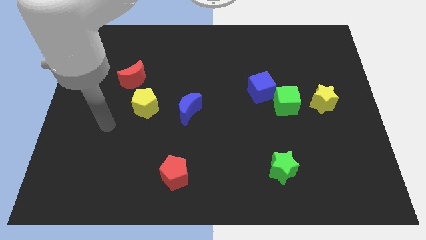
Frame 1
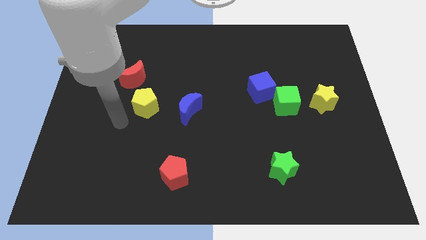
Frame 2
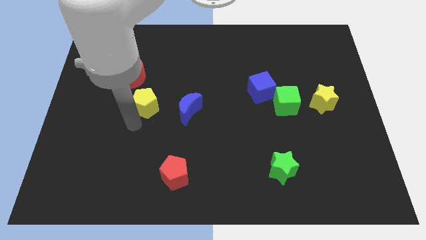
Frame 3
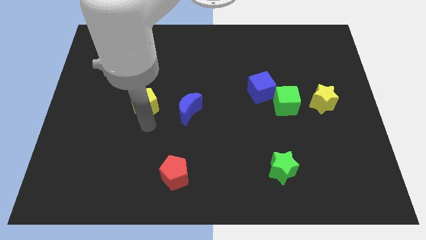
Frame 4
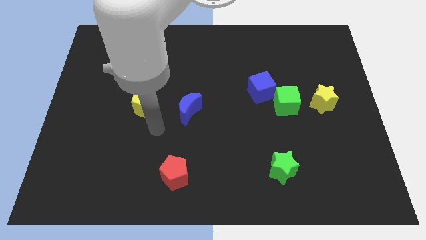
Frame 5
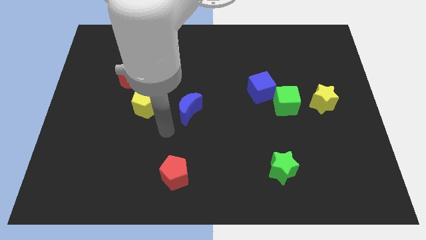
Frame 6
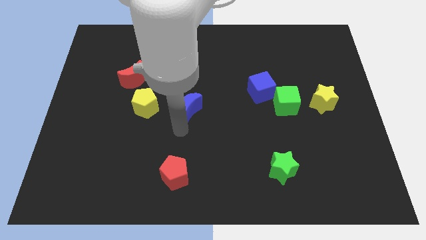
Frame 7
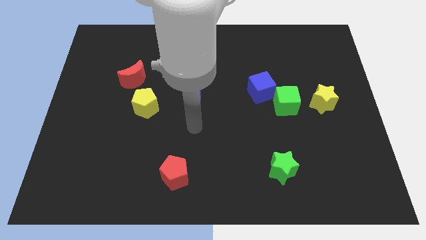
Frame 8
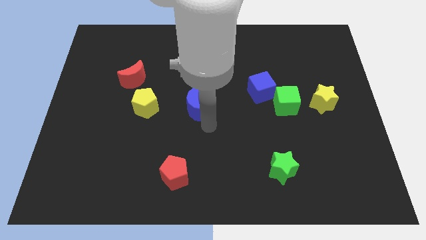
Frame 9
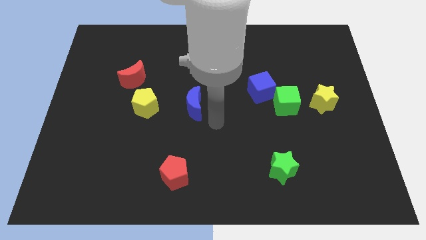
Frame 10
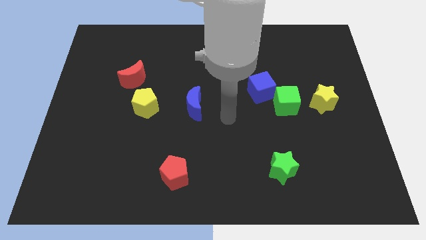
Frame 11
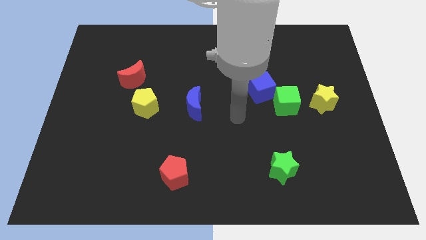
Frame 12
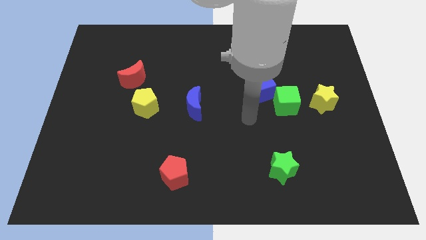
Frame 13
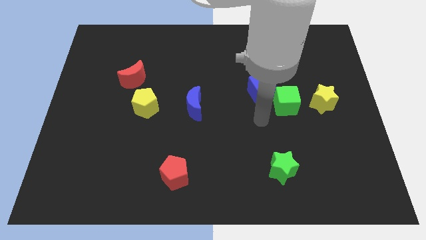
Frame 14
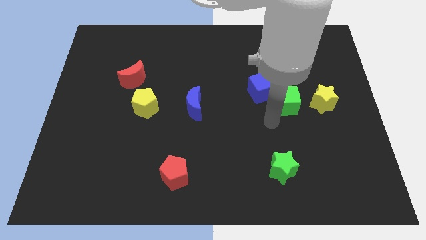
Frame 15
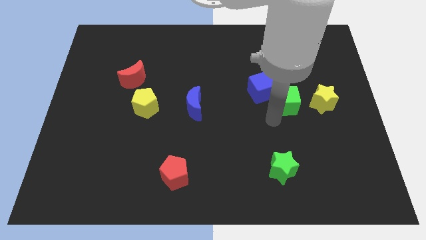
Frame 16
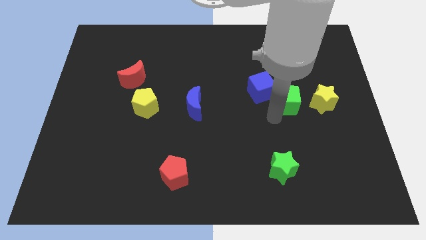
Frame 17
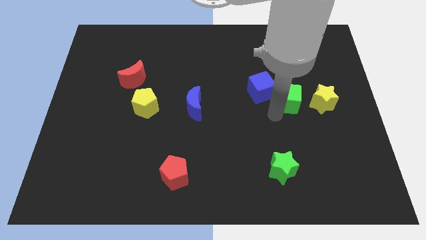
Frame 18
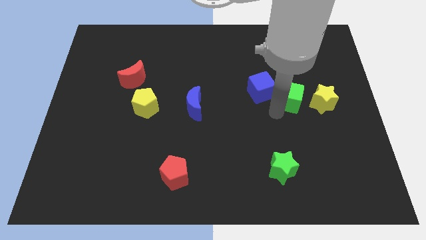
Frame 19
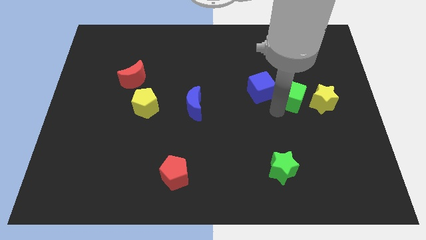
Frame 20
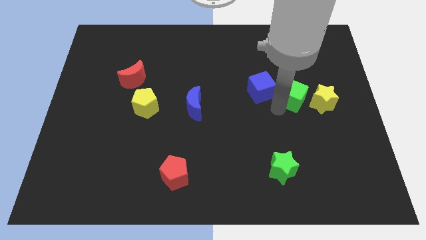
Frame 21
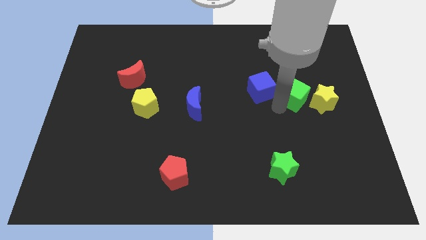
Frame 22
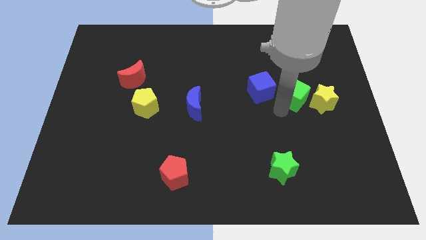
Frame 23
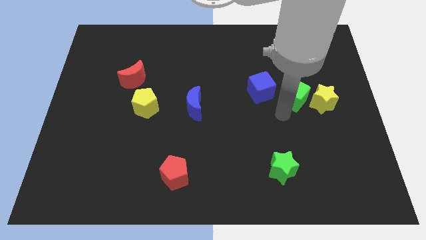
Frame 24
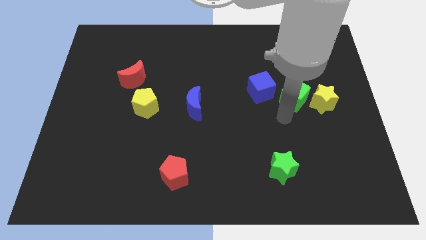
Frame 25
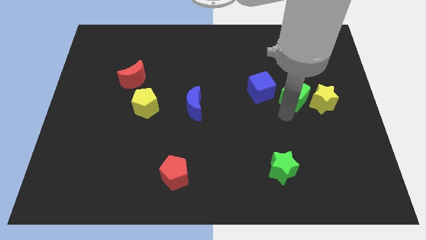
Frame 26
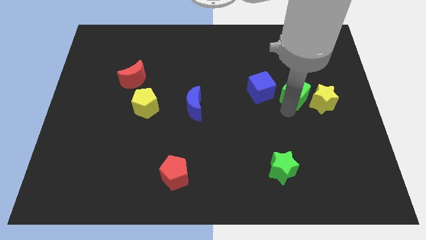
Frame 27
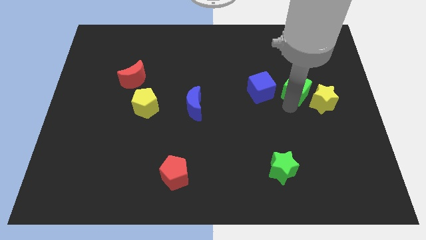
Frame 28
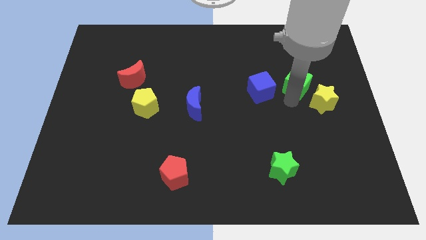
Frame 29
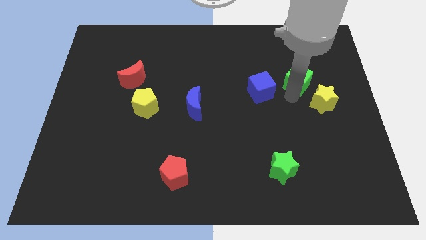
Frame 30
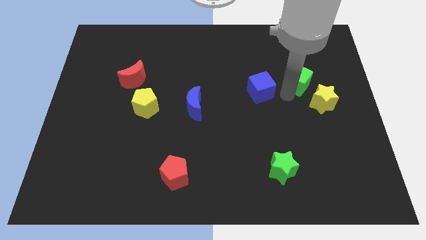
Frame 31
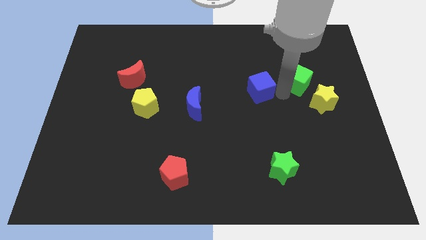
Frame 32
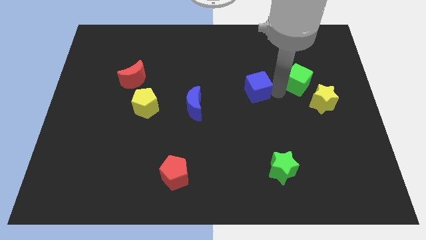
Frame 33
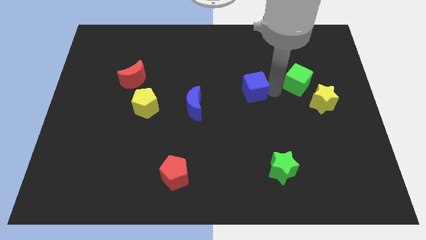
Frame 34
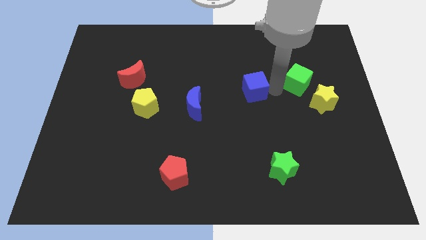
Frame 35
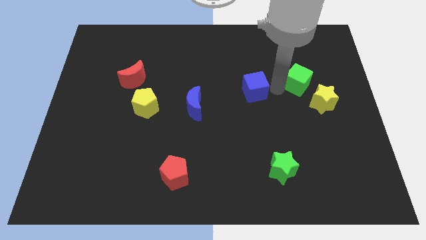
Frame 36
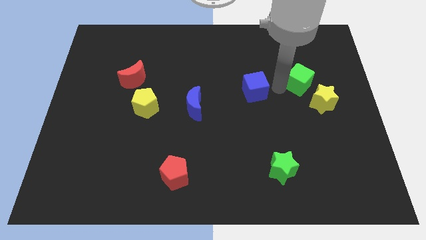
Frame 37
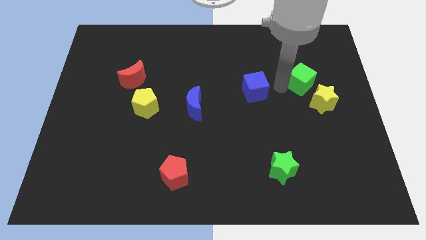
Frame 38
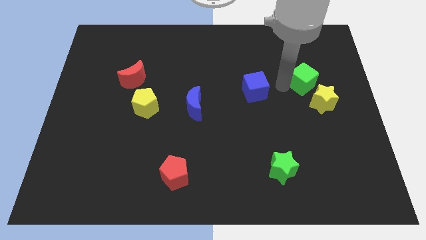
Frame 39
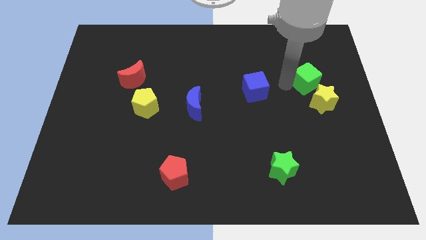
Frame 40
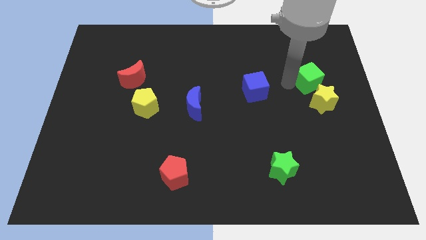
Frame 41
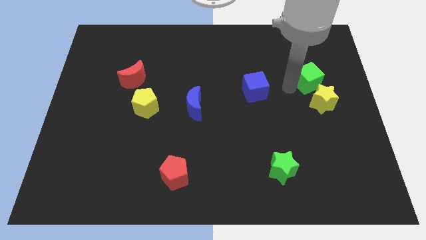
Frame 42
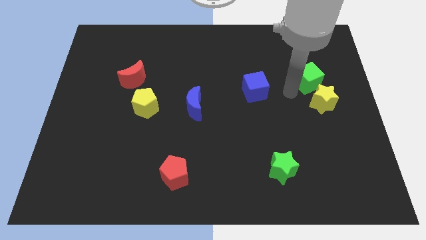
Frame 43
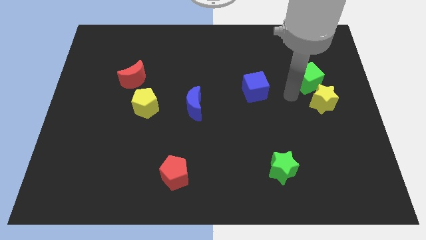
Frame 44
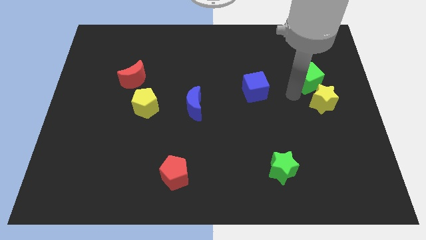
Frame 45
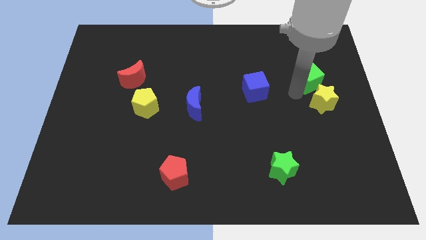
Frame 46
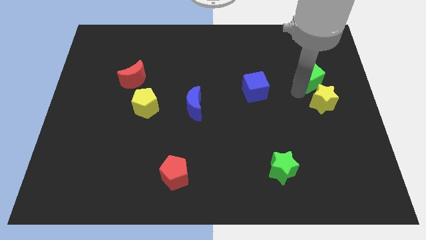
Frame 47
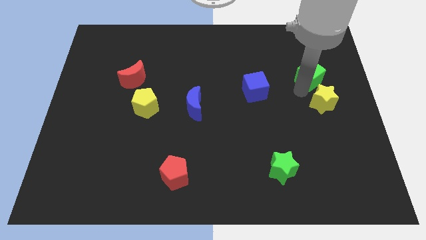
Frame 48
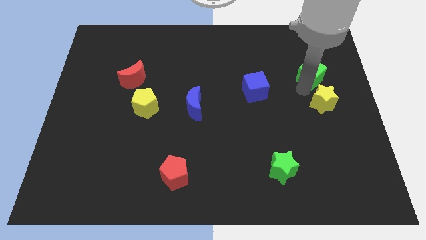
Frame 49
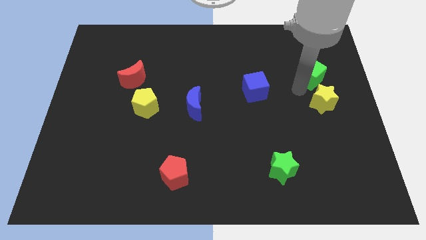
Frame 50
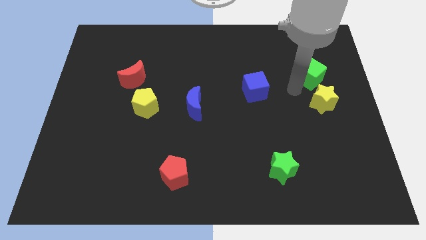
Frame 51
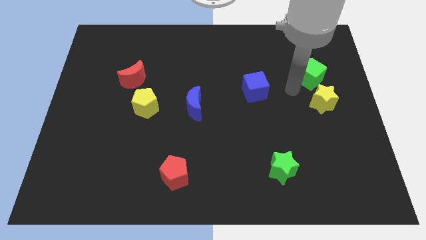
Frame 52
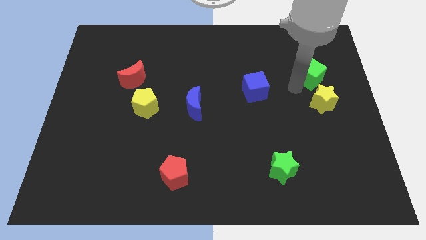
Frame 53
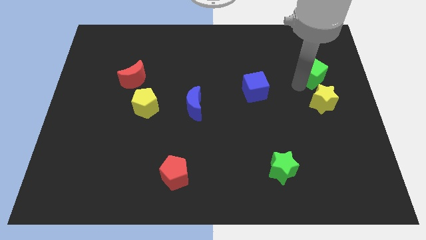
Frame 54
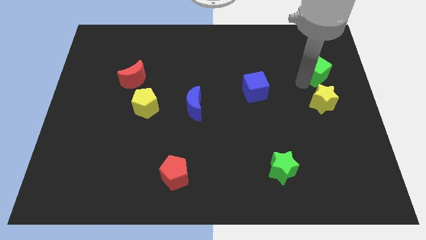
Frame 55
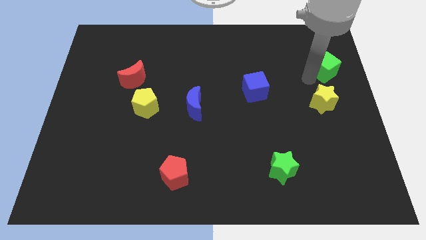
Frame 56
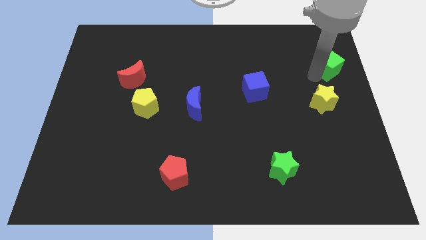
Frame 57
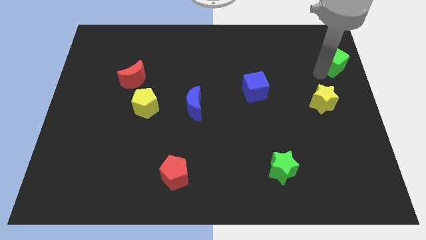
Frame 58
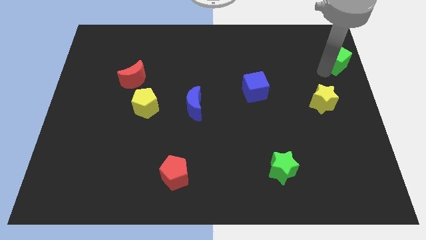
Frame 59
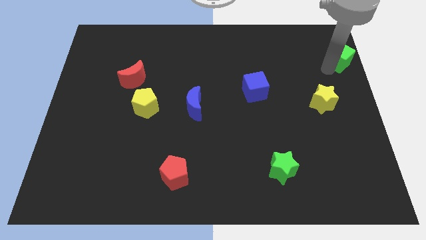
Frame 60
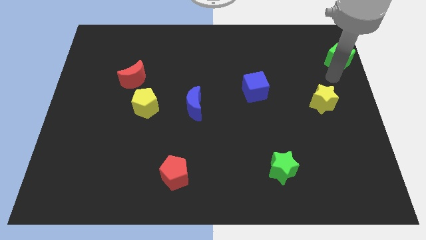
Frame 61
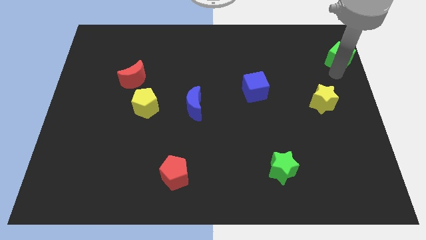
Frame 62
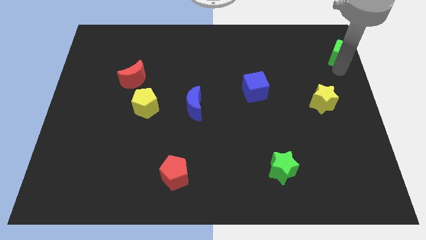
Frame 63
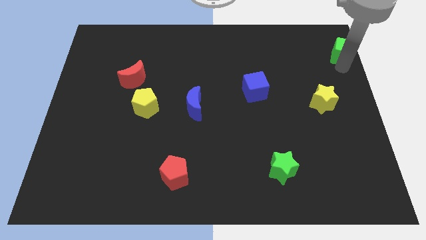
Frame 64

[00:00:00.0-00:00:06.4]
slide the green cube to the top right corner
